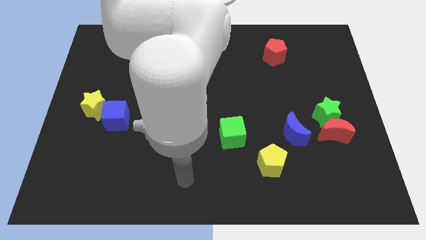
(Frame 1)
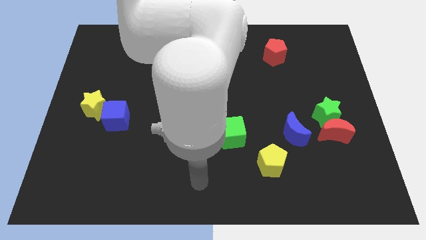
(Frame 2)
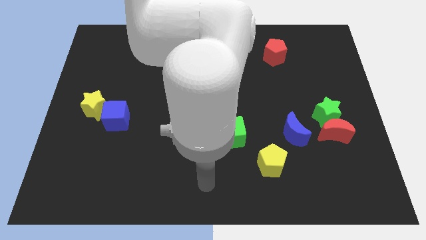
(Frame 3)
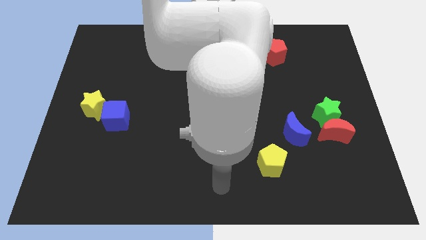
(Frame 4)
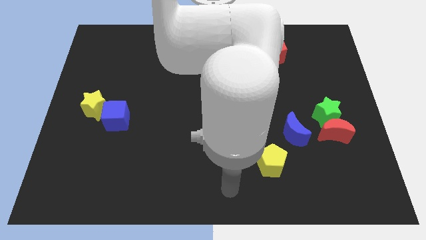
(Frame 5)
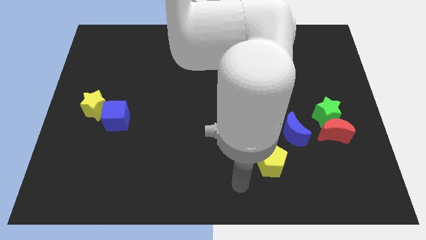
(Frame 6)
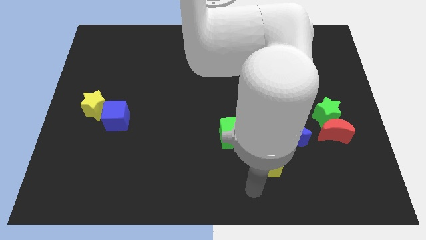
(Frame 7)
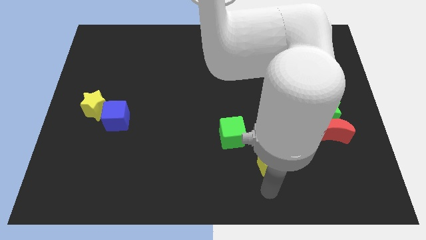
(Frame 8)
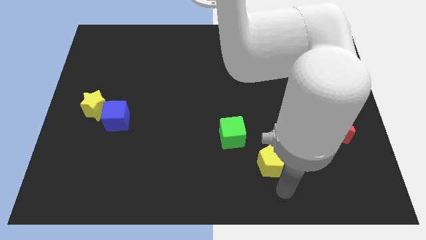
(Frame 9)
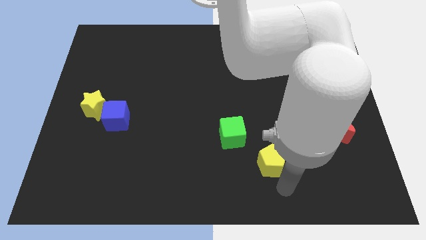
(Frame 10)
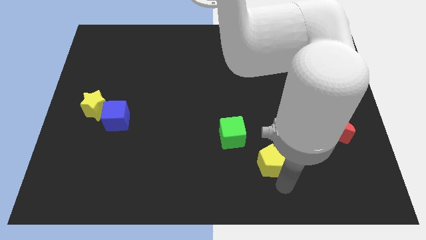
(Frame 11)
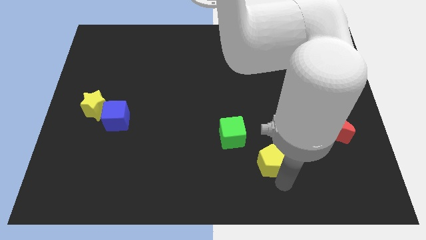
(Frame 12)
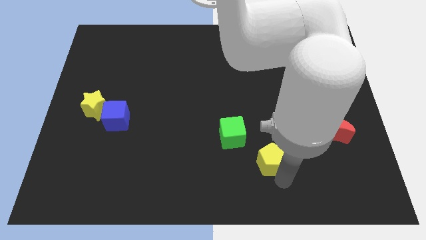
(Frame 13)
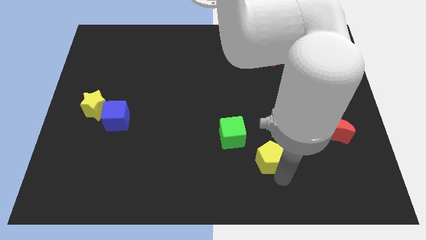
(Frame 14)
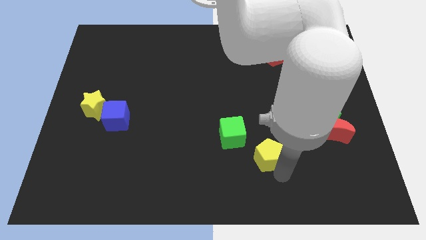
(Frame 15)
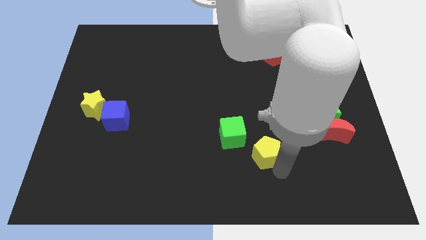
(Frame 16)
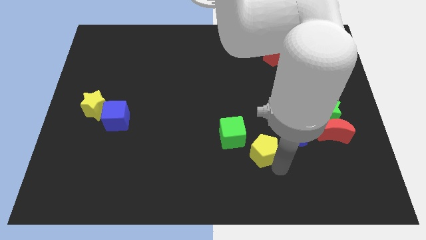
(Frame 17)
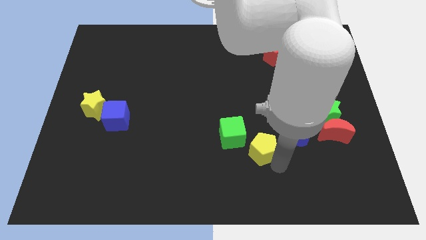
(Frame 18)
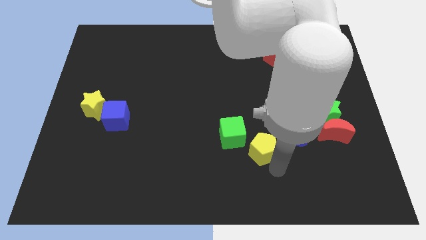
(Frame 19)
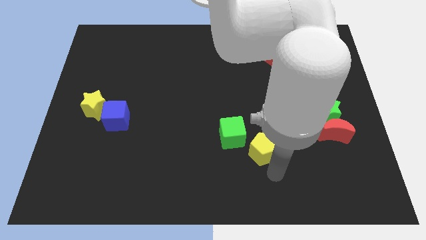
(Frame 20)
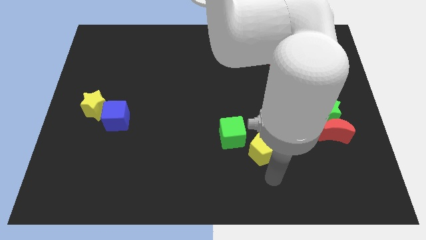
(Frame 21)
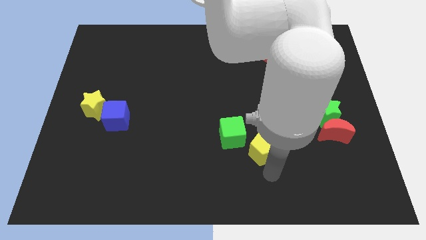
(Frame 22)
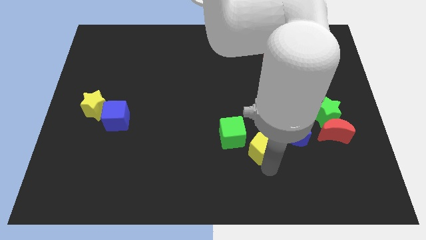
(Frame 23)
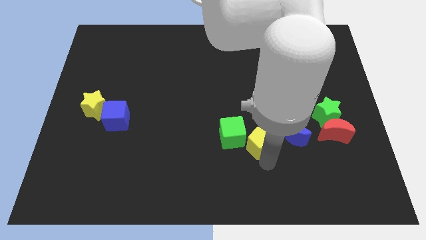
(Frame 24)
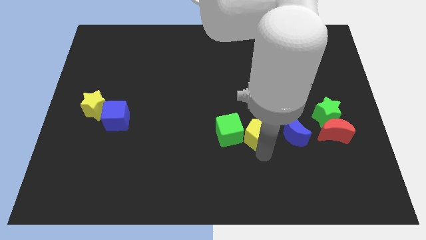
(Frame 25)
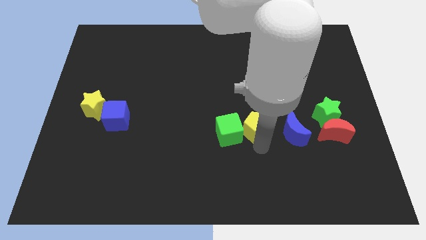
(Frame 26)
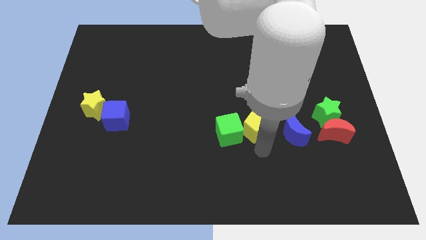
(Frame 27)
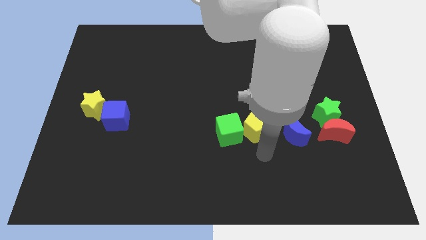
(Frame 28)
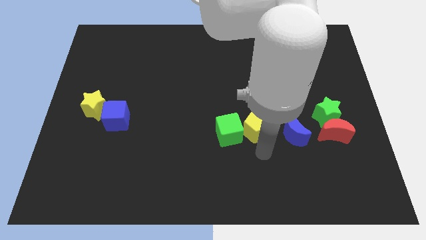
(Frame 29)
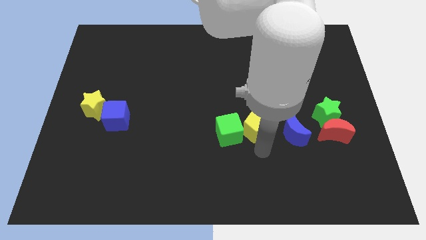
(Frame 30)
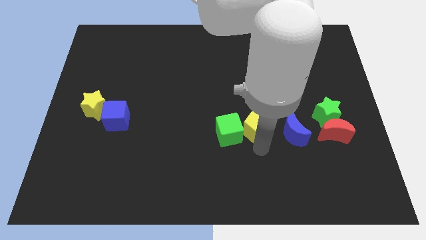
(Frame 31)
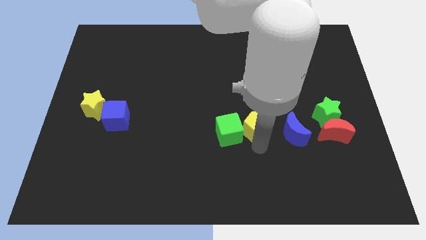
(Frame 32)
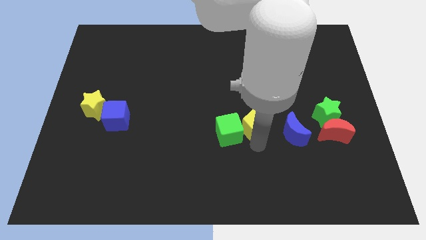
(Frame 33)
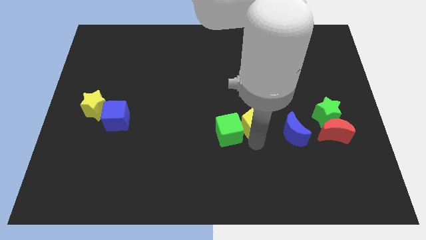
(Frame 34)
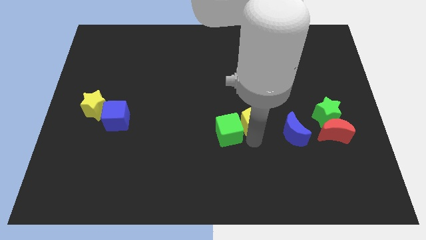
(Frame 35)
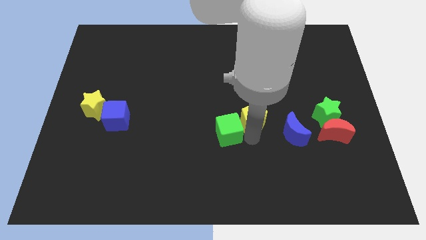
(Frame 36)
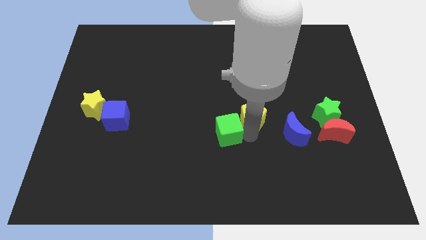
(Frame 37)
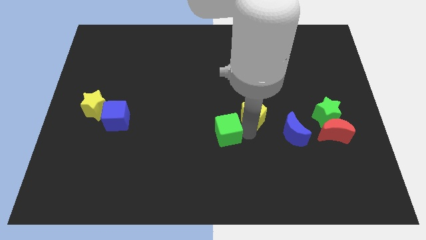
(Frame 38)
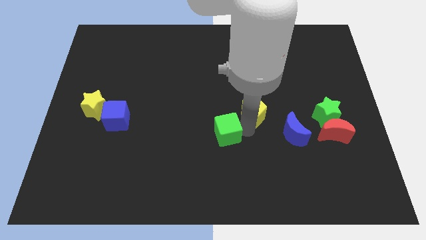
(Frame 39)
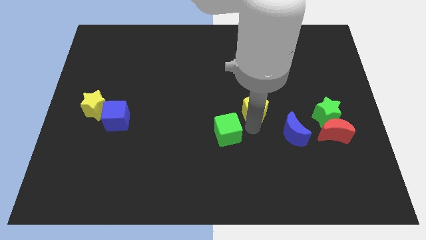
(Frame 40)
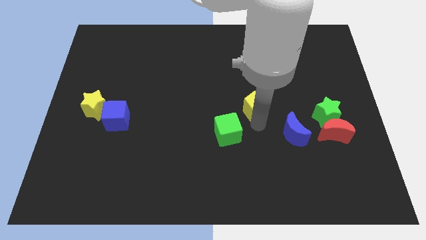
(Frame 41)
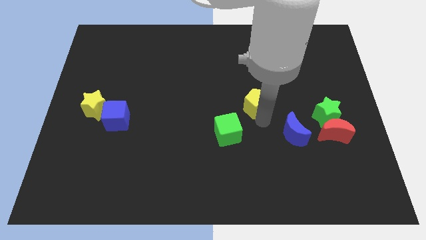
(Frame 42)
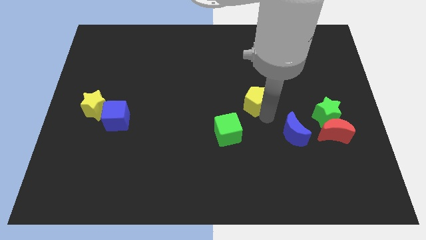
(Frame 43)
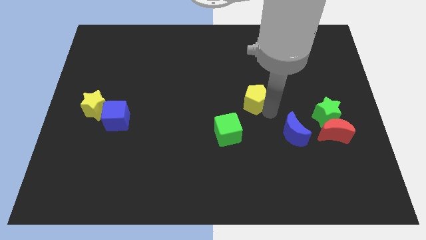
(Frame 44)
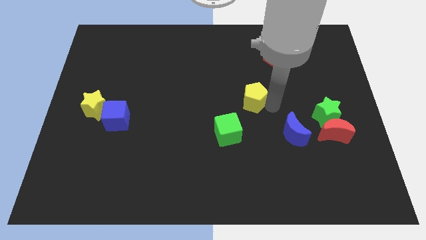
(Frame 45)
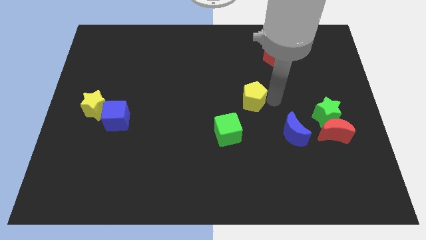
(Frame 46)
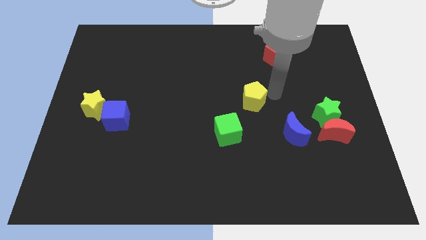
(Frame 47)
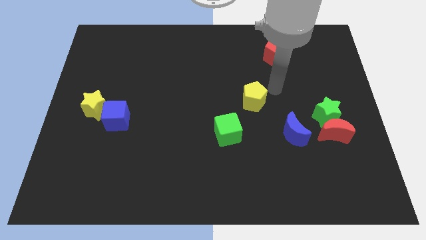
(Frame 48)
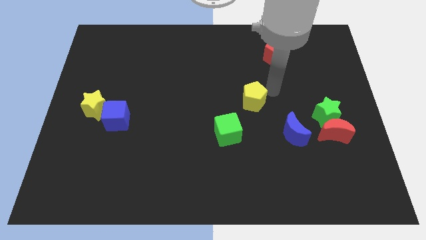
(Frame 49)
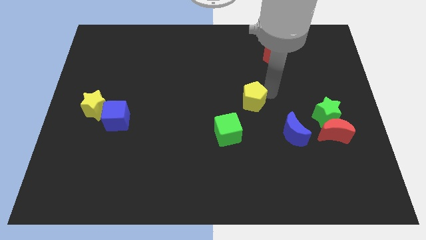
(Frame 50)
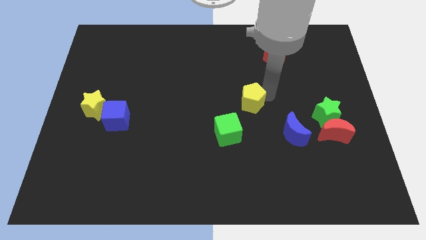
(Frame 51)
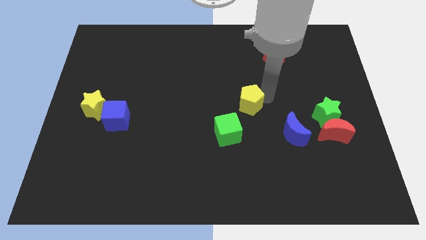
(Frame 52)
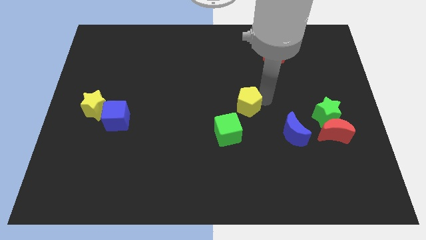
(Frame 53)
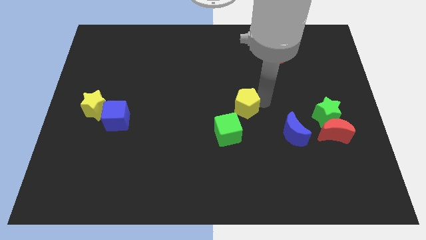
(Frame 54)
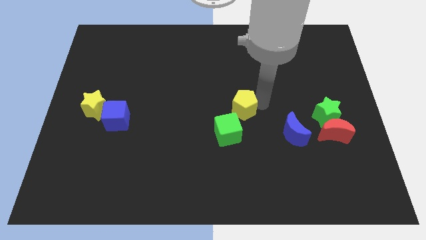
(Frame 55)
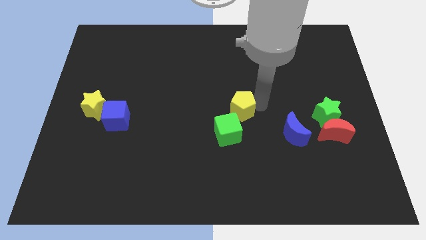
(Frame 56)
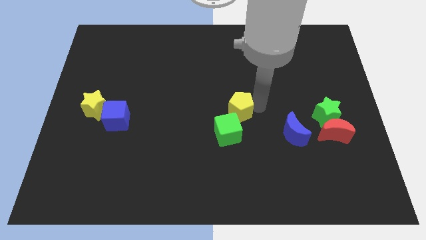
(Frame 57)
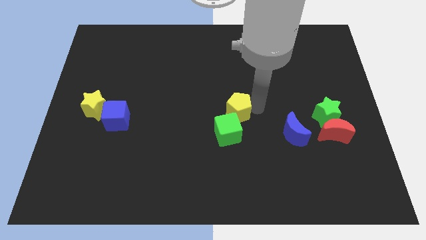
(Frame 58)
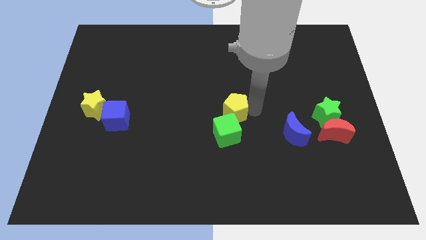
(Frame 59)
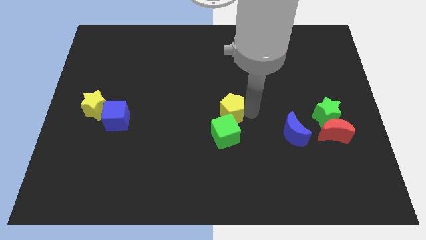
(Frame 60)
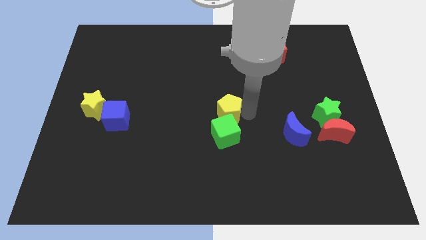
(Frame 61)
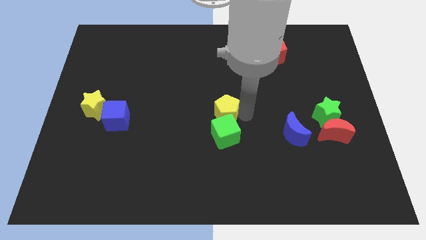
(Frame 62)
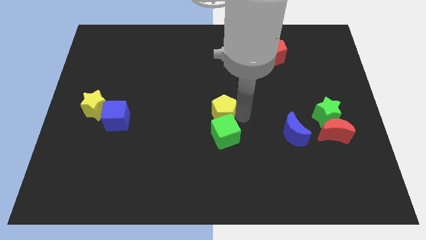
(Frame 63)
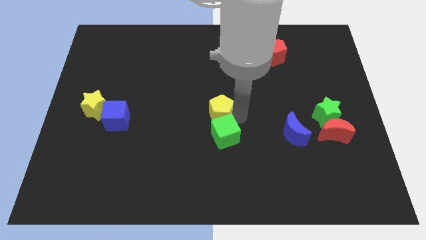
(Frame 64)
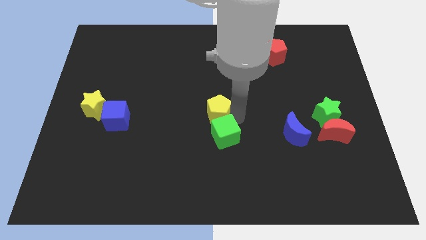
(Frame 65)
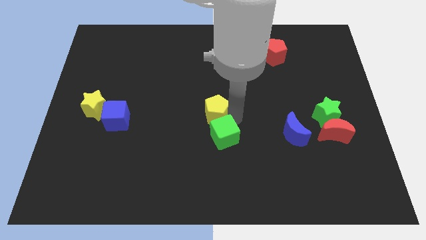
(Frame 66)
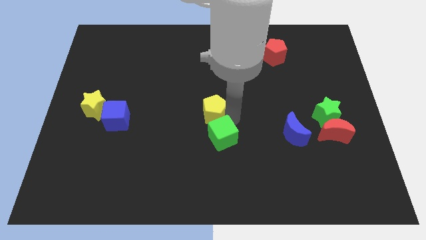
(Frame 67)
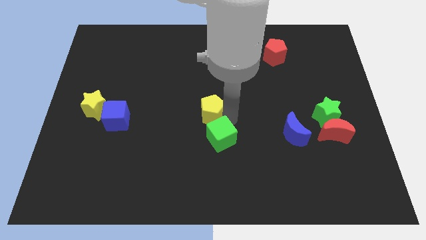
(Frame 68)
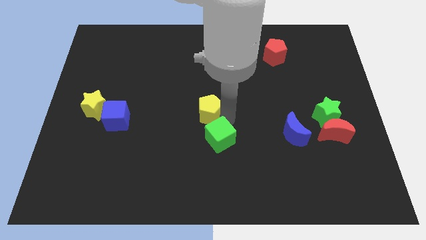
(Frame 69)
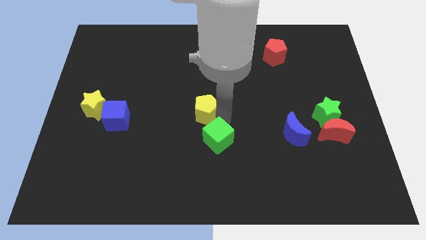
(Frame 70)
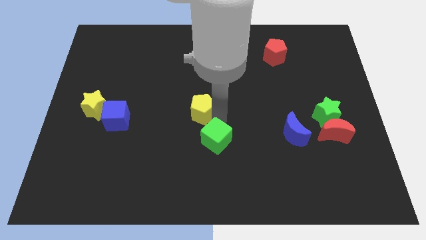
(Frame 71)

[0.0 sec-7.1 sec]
push the yellow pentagon up and left

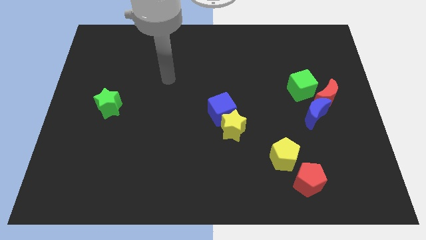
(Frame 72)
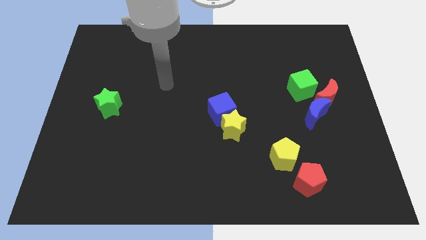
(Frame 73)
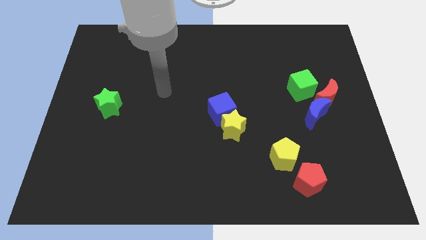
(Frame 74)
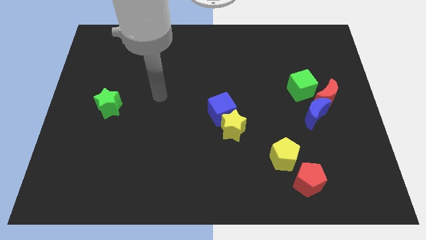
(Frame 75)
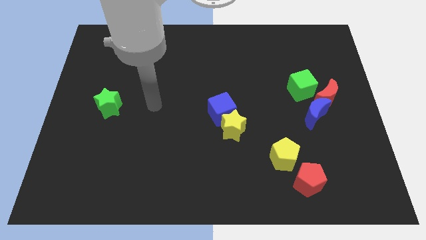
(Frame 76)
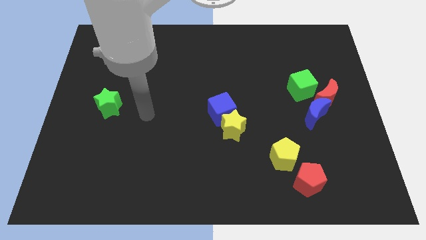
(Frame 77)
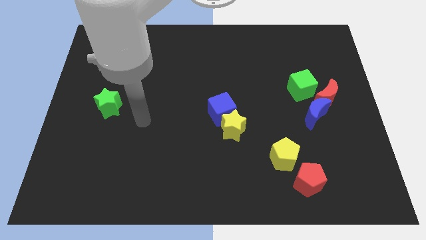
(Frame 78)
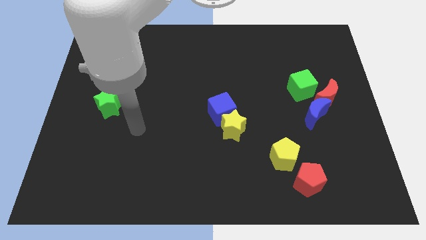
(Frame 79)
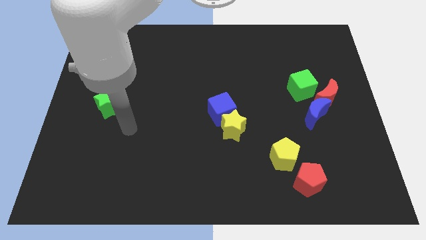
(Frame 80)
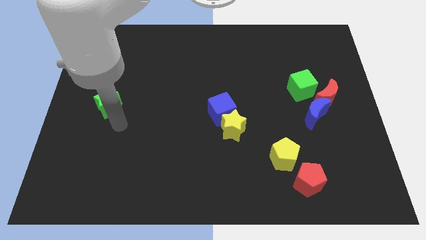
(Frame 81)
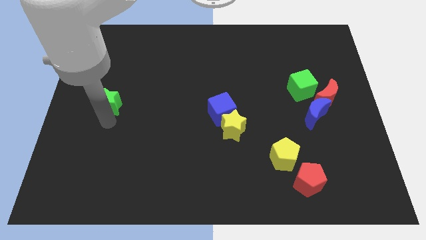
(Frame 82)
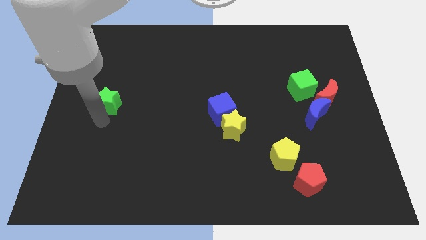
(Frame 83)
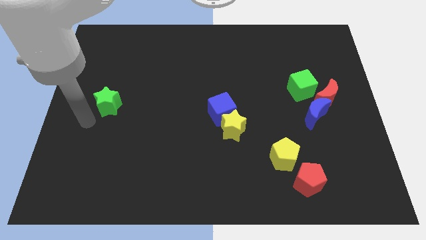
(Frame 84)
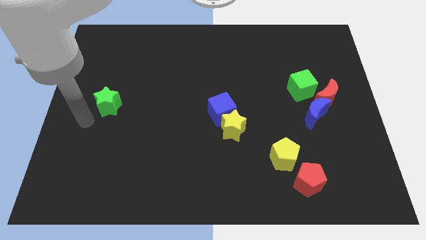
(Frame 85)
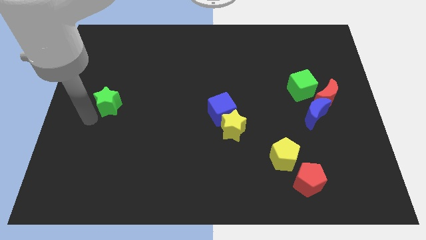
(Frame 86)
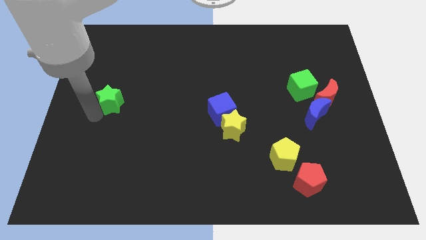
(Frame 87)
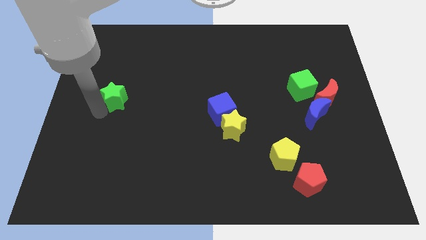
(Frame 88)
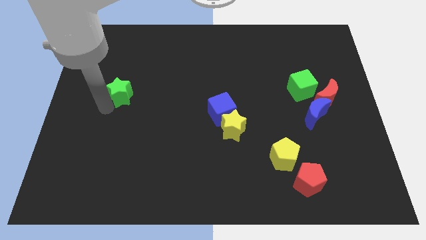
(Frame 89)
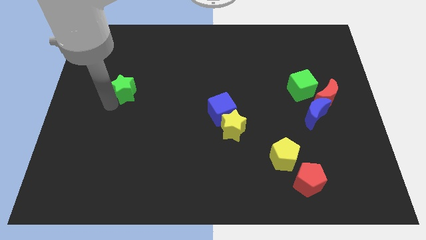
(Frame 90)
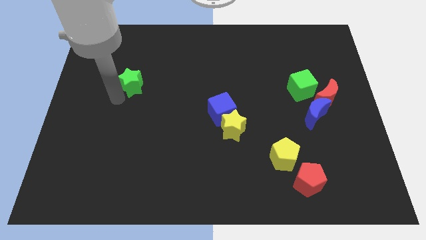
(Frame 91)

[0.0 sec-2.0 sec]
slightly move the green star diagonally upwards and right
